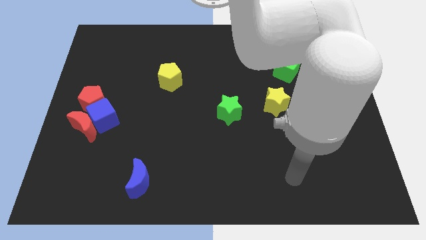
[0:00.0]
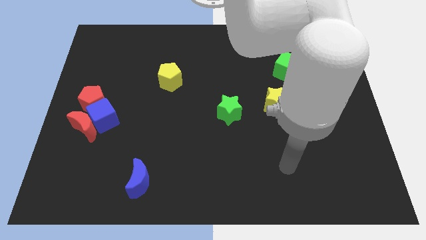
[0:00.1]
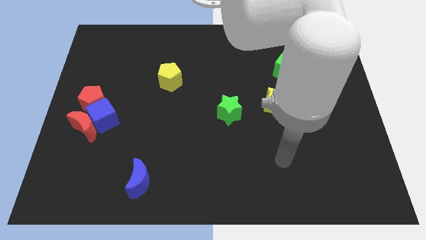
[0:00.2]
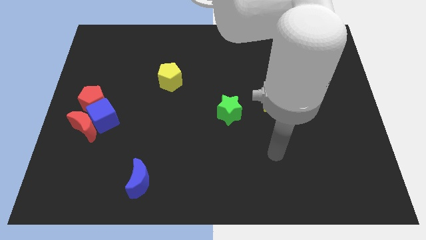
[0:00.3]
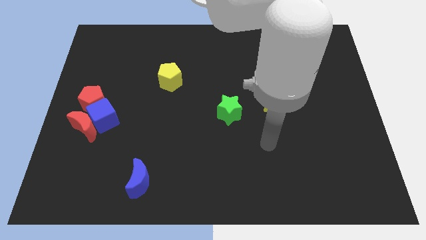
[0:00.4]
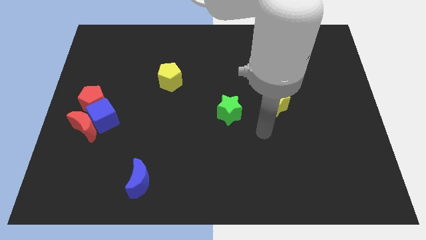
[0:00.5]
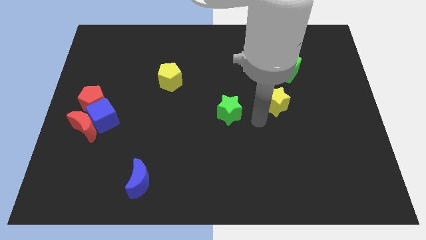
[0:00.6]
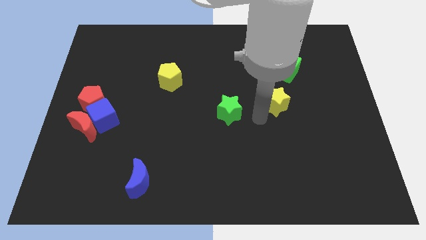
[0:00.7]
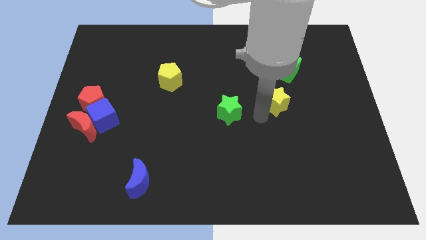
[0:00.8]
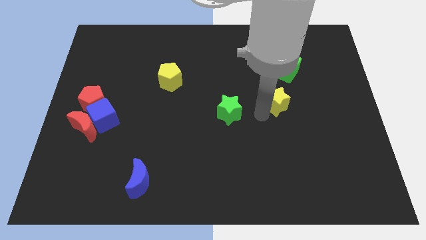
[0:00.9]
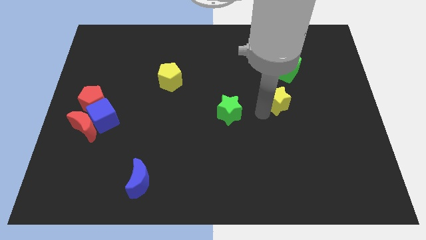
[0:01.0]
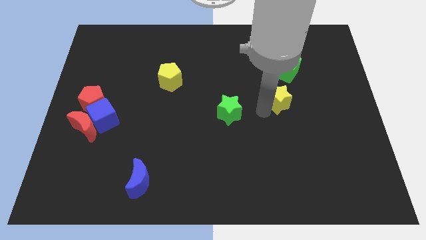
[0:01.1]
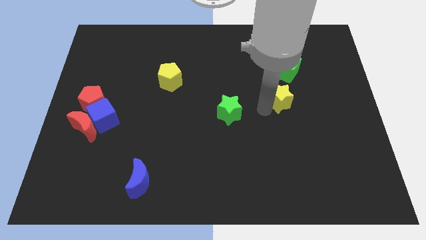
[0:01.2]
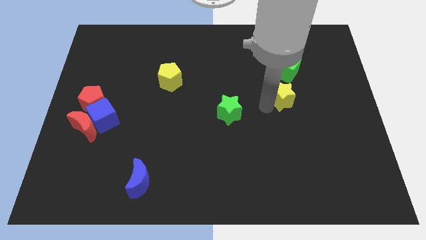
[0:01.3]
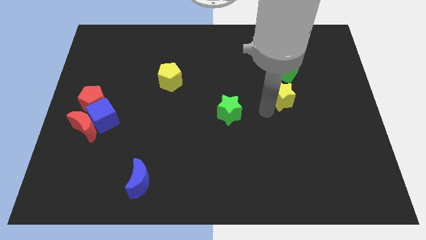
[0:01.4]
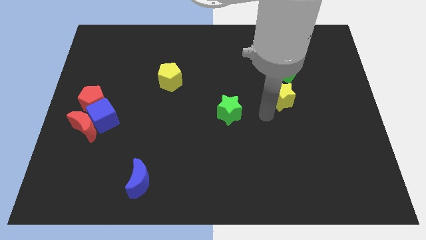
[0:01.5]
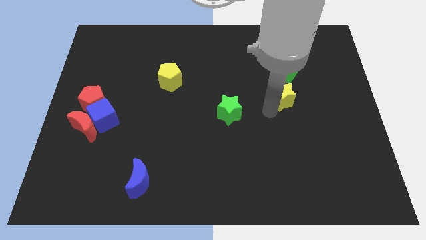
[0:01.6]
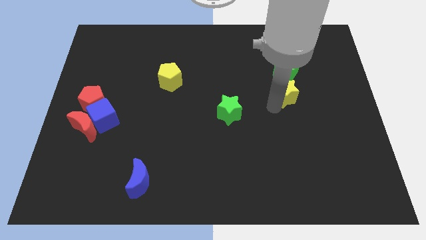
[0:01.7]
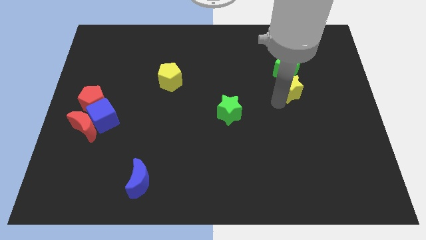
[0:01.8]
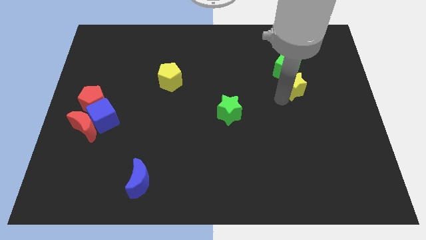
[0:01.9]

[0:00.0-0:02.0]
push the yellow star upwards and right diagonally somewhat

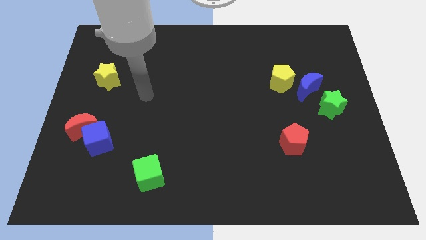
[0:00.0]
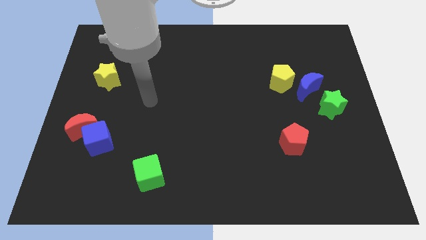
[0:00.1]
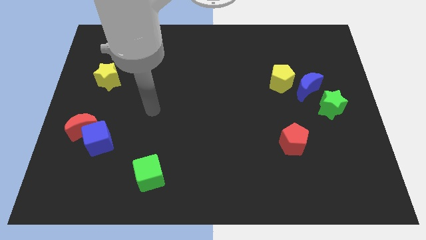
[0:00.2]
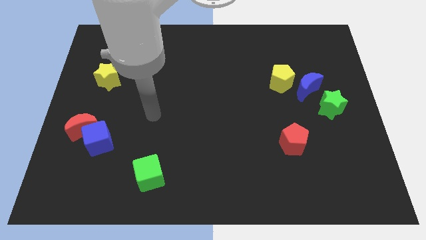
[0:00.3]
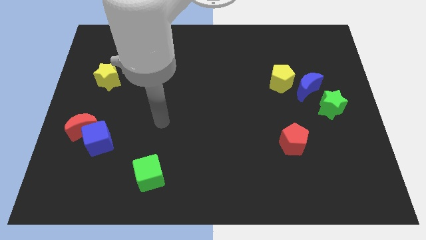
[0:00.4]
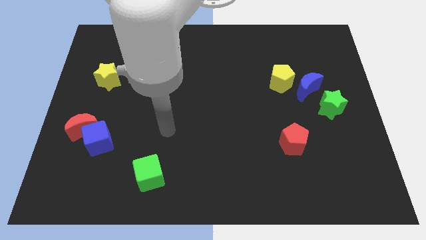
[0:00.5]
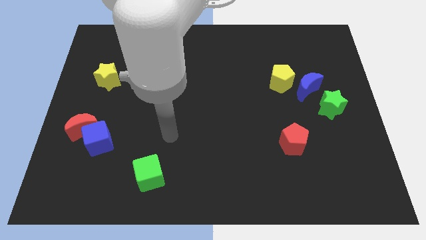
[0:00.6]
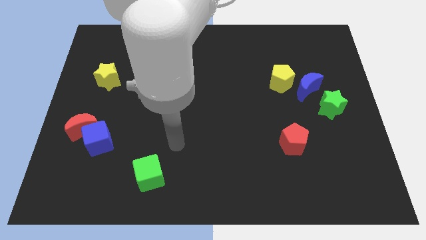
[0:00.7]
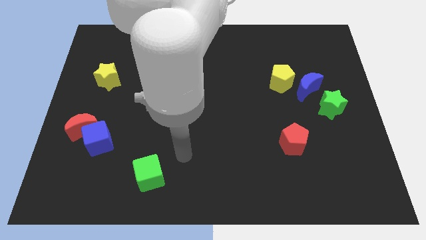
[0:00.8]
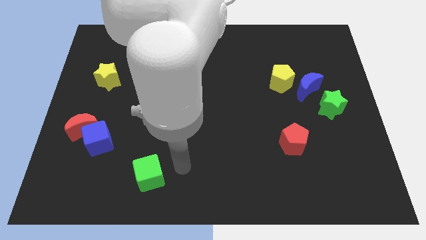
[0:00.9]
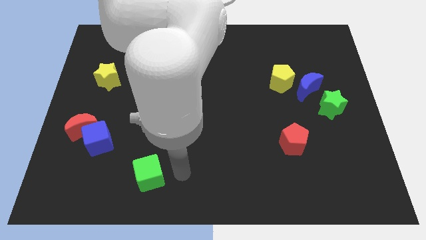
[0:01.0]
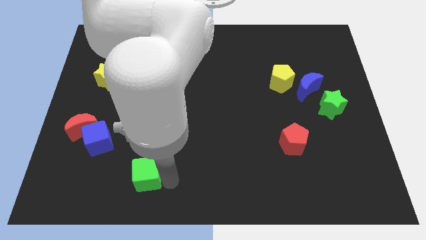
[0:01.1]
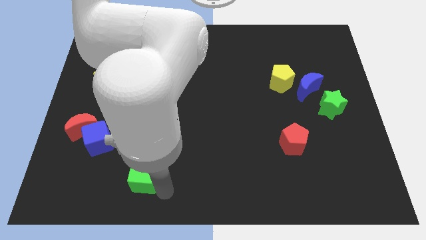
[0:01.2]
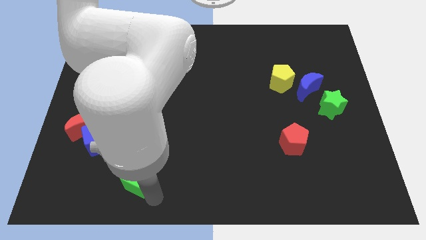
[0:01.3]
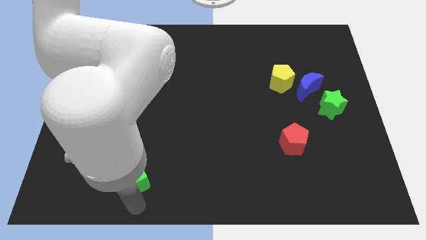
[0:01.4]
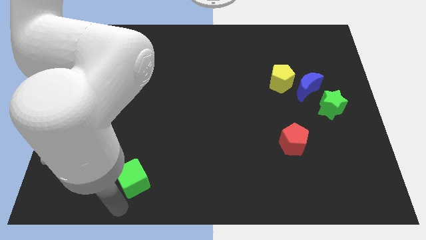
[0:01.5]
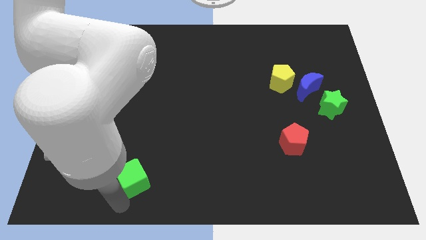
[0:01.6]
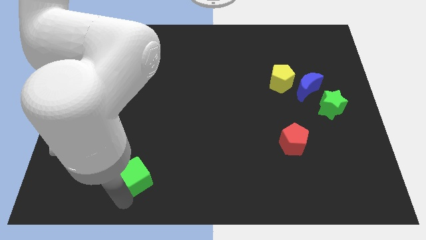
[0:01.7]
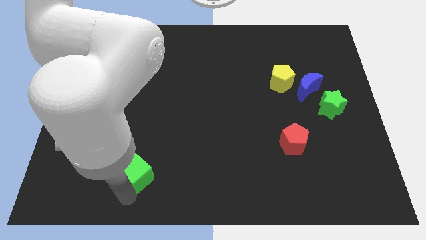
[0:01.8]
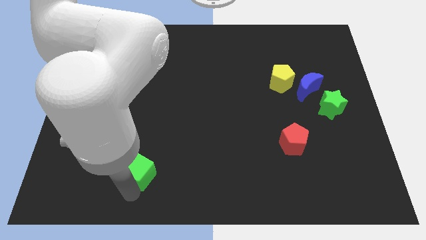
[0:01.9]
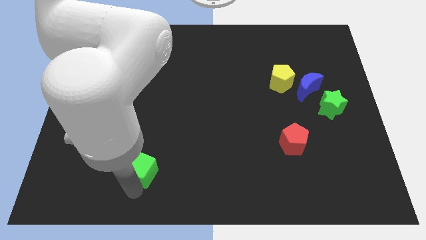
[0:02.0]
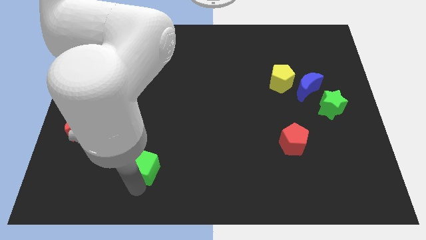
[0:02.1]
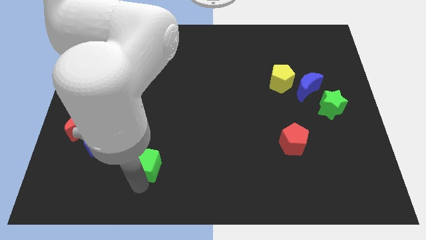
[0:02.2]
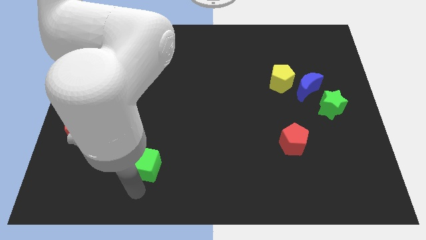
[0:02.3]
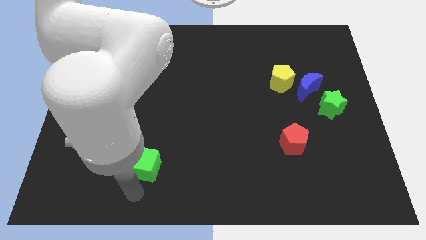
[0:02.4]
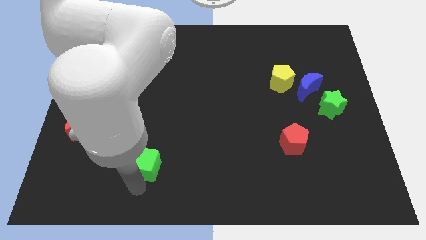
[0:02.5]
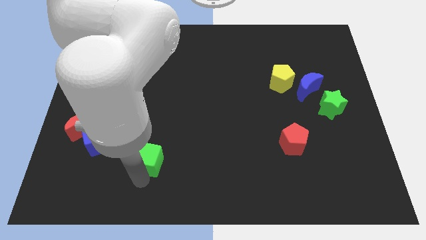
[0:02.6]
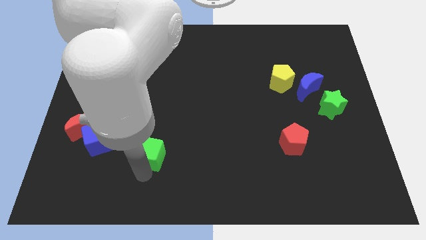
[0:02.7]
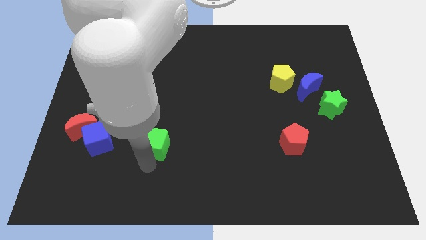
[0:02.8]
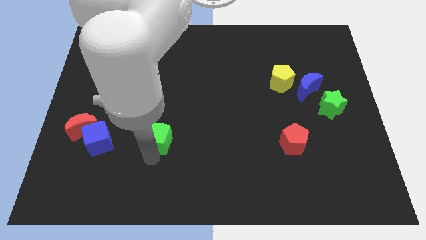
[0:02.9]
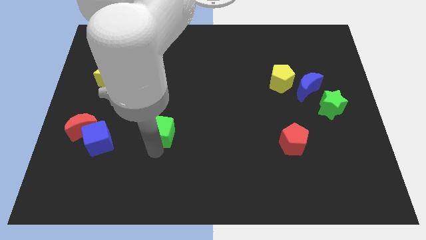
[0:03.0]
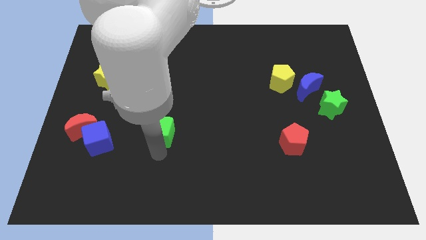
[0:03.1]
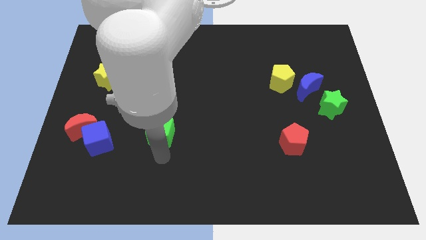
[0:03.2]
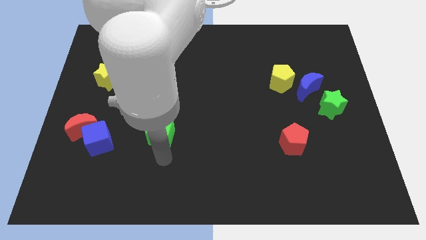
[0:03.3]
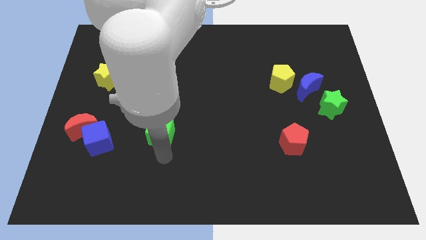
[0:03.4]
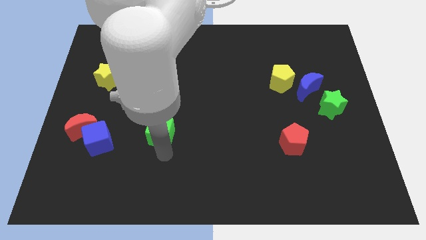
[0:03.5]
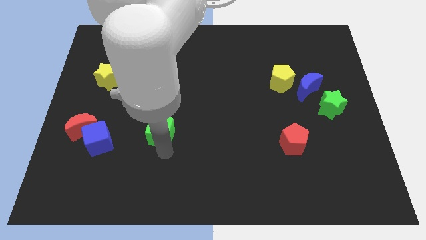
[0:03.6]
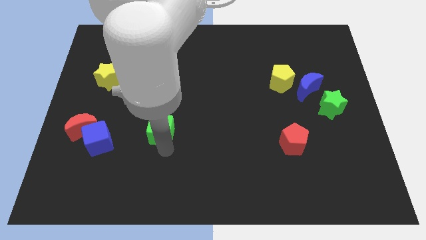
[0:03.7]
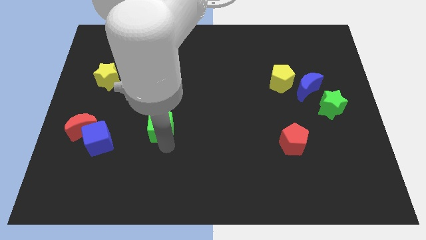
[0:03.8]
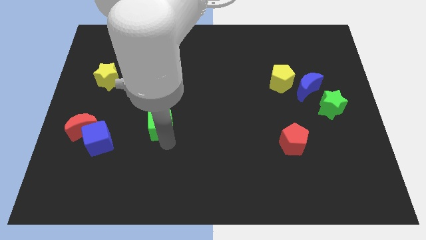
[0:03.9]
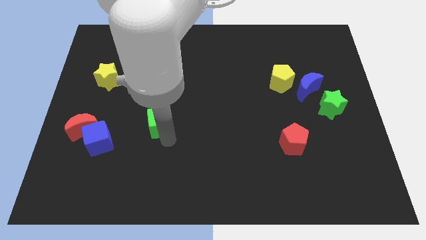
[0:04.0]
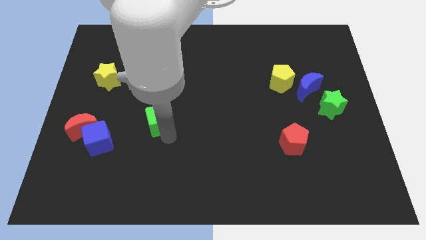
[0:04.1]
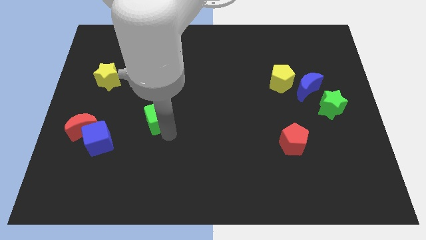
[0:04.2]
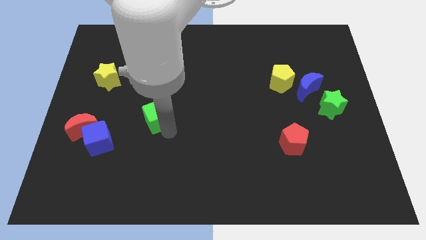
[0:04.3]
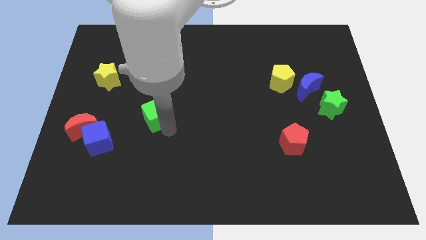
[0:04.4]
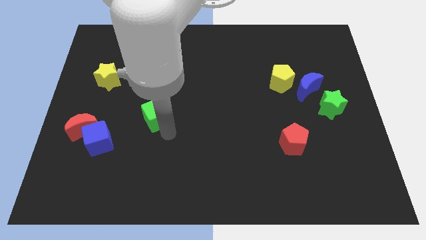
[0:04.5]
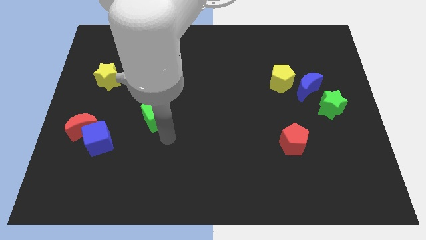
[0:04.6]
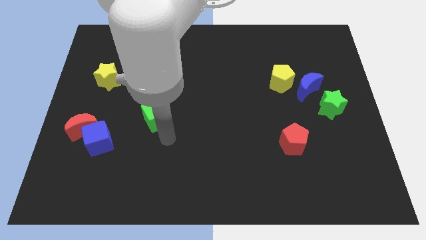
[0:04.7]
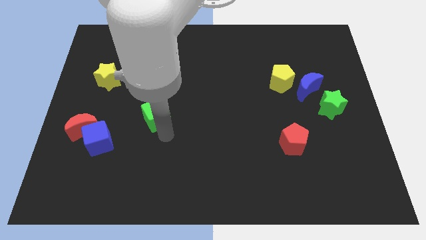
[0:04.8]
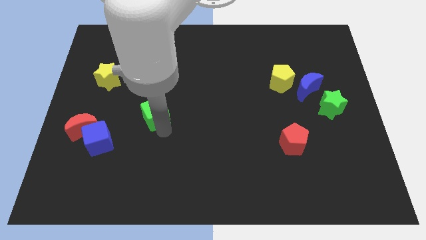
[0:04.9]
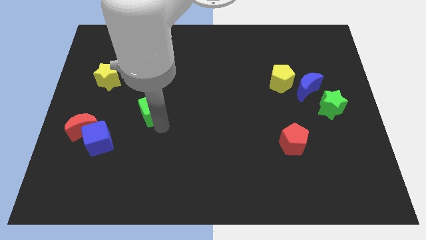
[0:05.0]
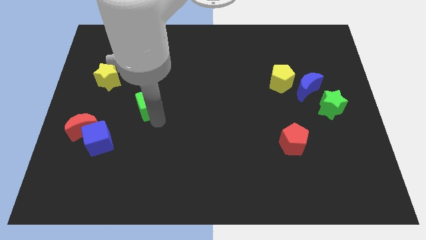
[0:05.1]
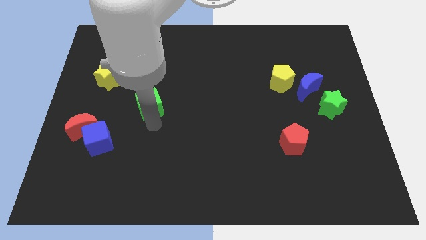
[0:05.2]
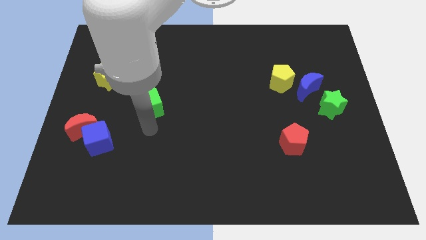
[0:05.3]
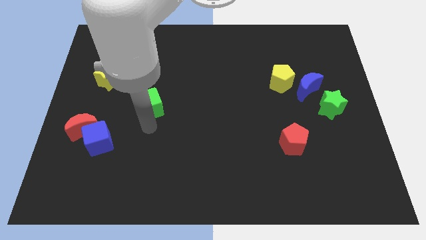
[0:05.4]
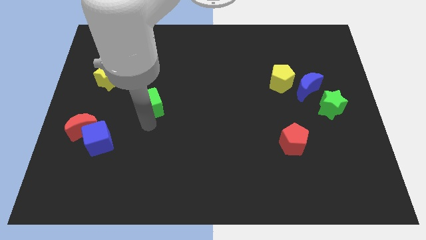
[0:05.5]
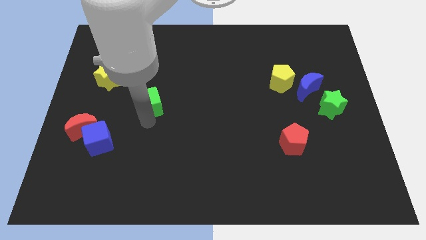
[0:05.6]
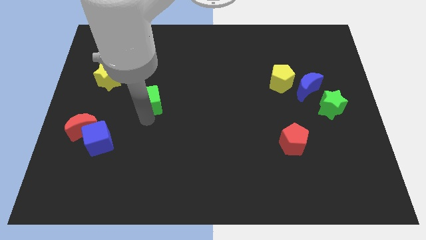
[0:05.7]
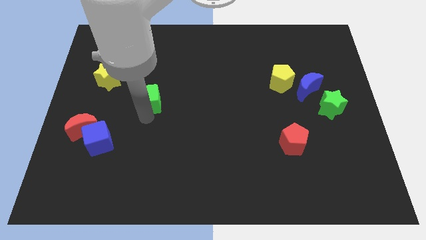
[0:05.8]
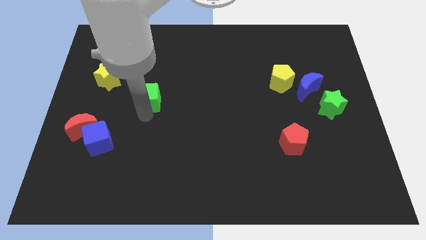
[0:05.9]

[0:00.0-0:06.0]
move the green cube up
